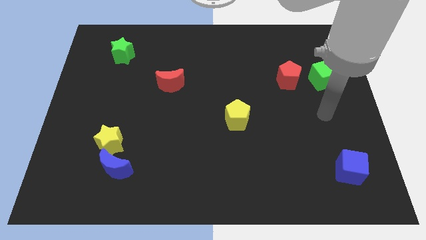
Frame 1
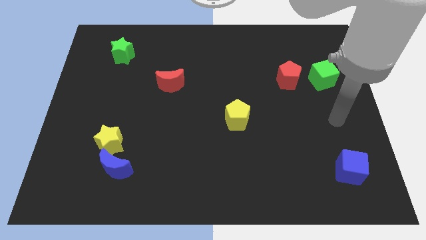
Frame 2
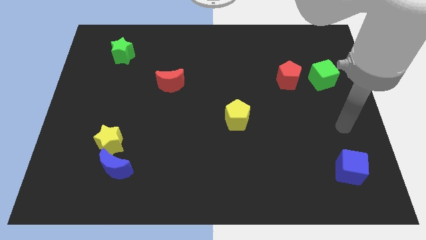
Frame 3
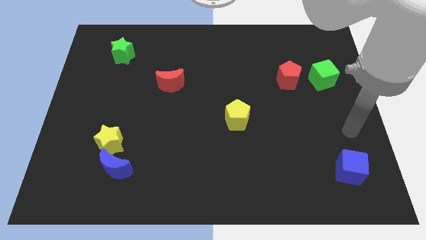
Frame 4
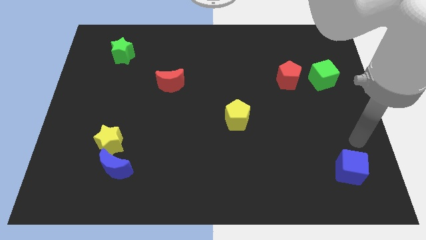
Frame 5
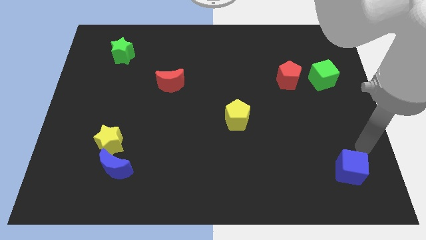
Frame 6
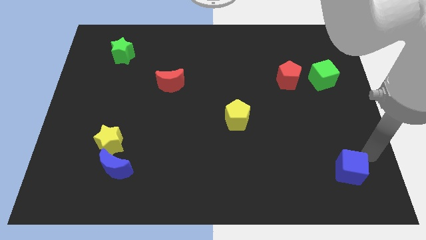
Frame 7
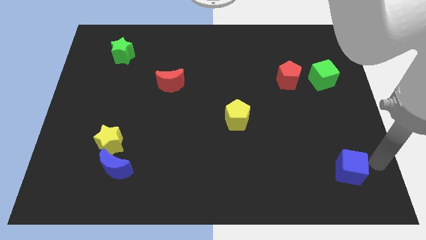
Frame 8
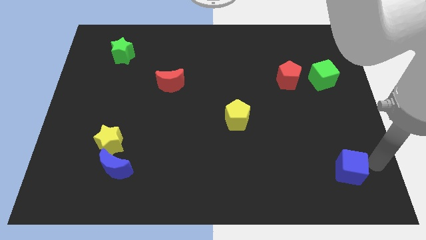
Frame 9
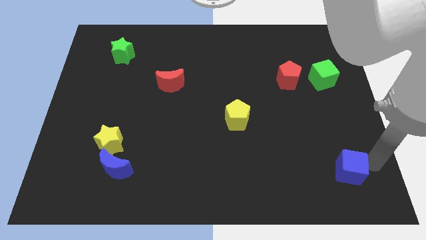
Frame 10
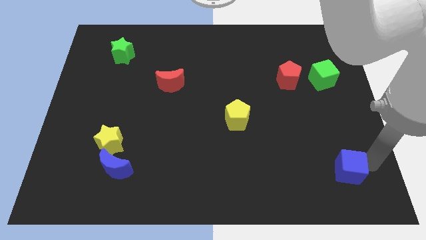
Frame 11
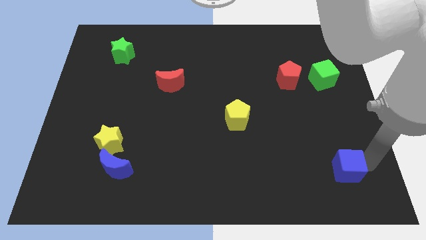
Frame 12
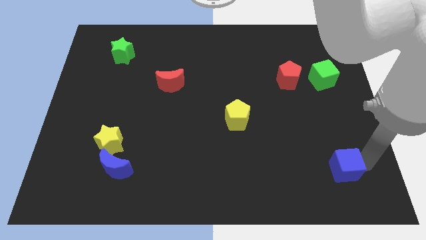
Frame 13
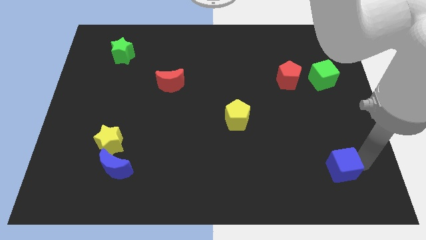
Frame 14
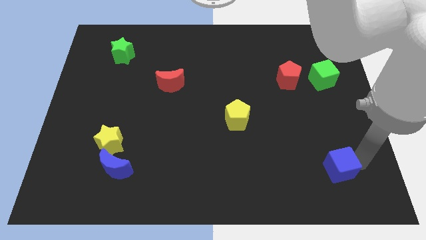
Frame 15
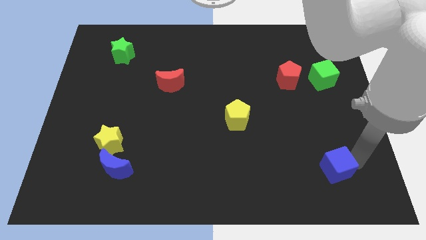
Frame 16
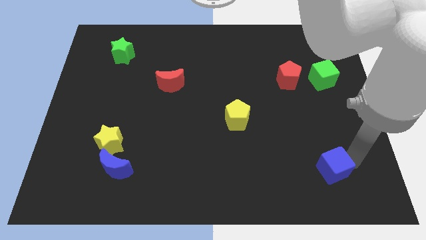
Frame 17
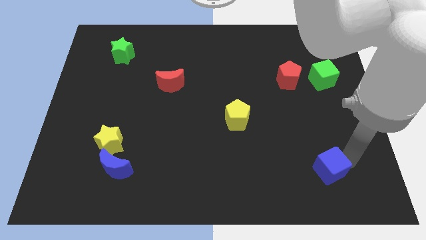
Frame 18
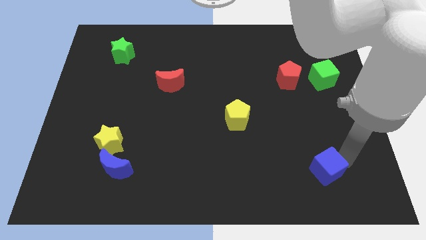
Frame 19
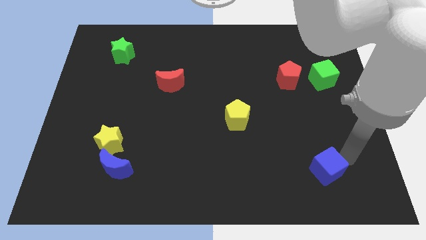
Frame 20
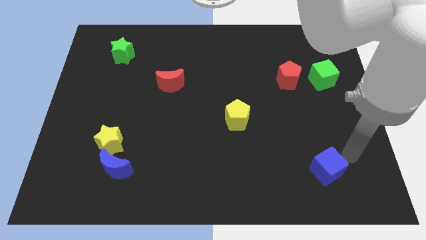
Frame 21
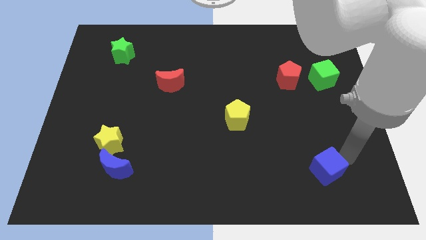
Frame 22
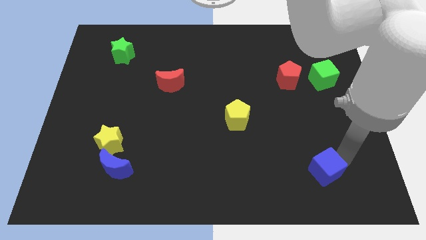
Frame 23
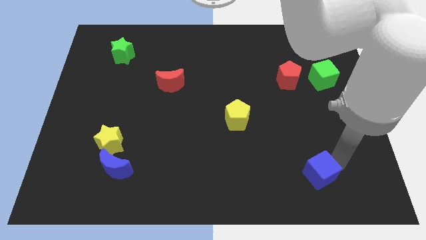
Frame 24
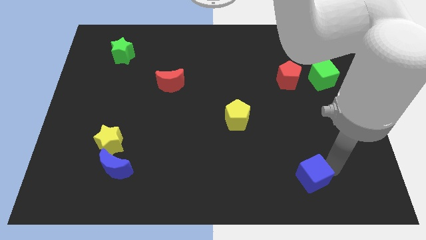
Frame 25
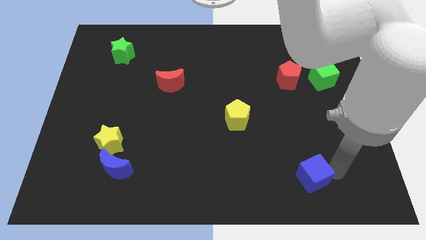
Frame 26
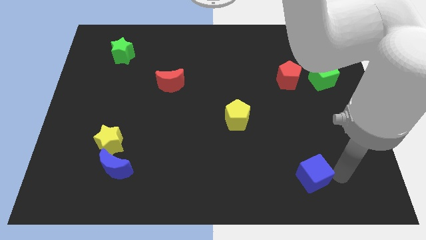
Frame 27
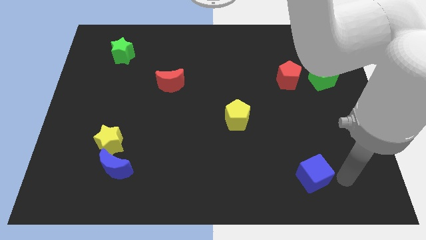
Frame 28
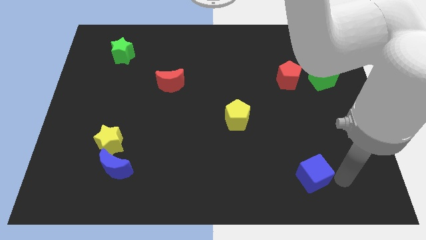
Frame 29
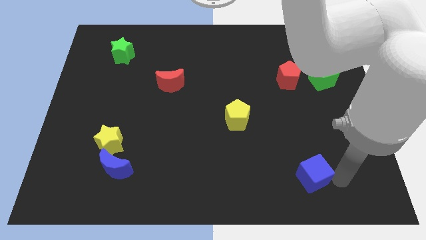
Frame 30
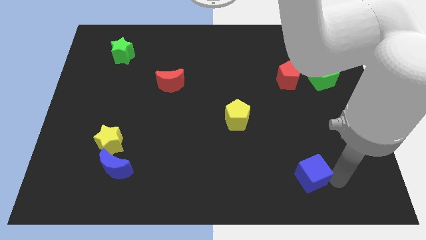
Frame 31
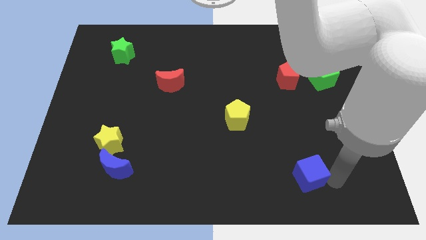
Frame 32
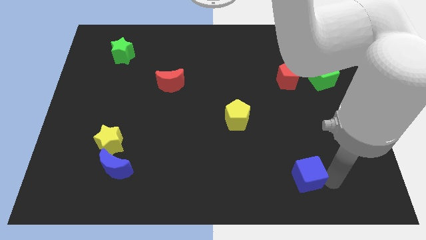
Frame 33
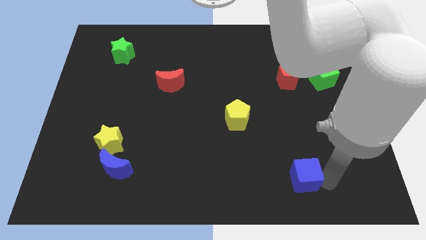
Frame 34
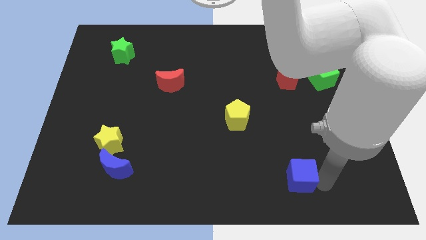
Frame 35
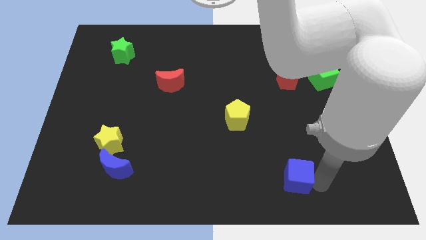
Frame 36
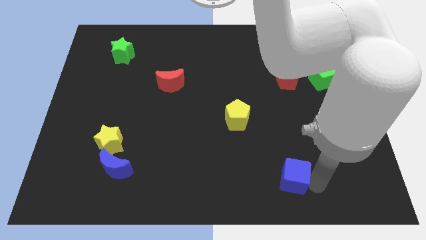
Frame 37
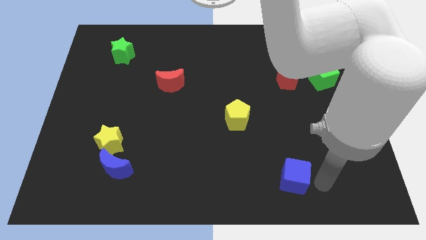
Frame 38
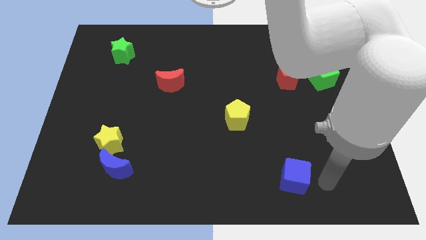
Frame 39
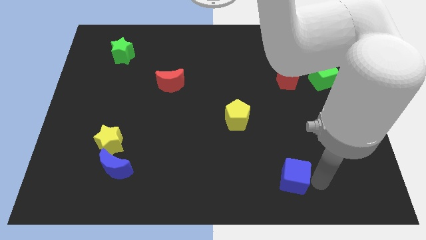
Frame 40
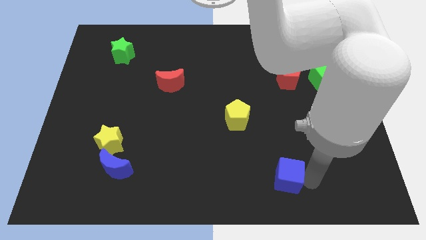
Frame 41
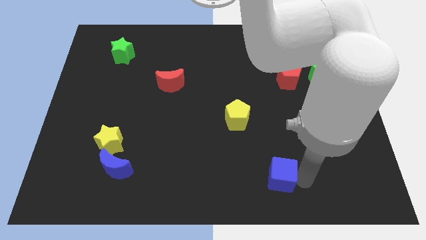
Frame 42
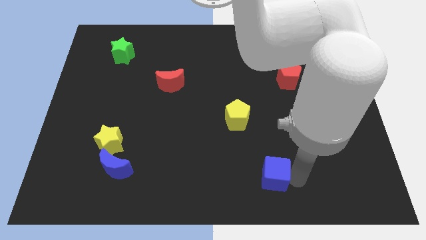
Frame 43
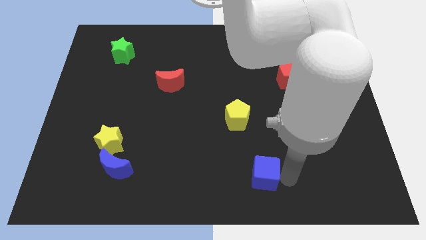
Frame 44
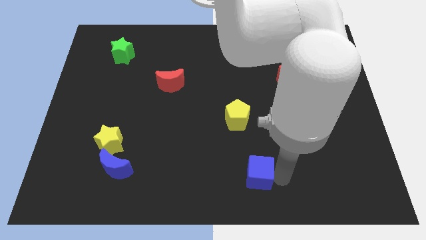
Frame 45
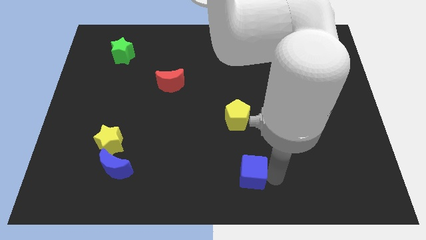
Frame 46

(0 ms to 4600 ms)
move the blue cube left

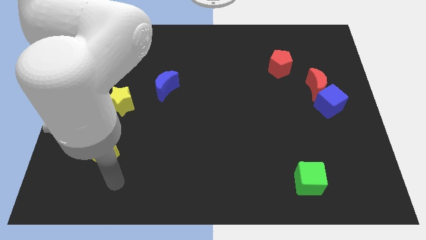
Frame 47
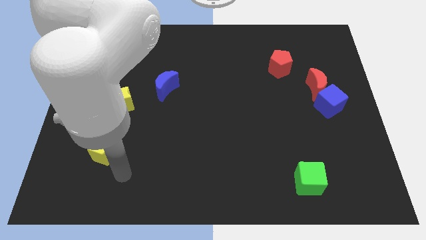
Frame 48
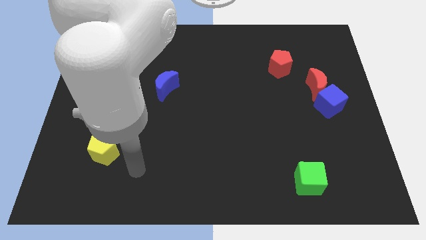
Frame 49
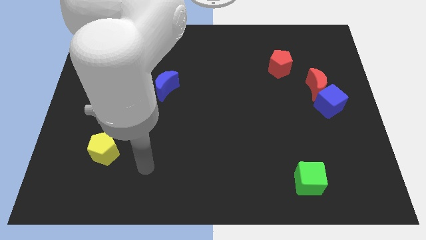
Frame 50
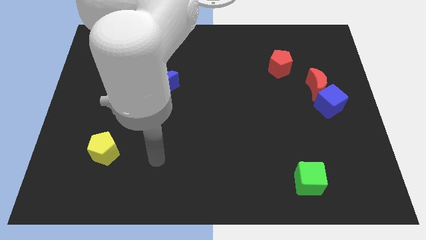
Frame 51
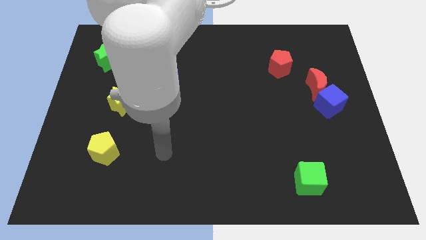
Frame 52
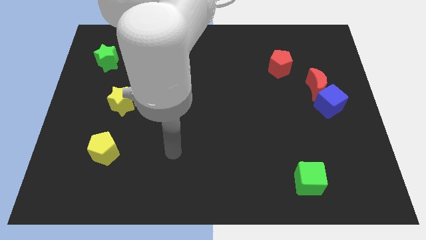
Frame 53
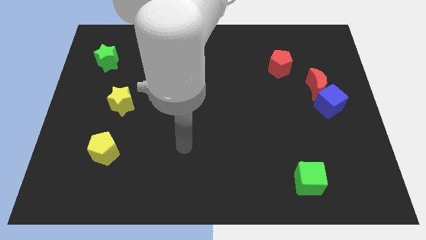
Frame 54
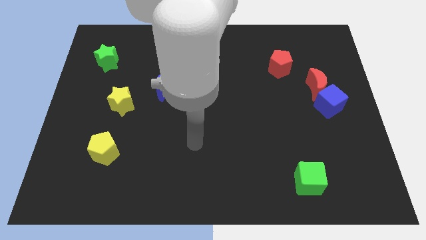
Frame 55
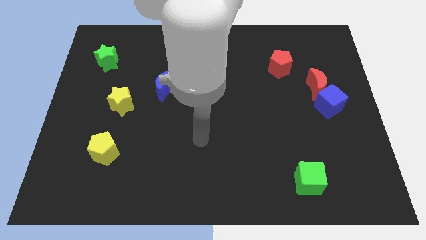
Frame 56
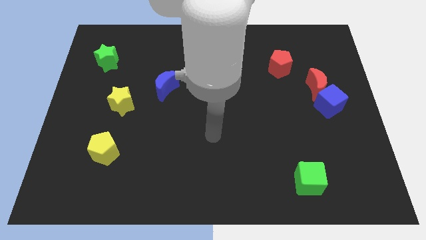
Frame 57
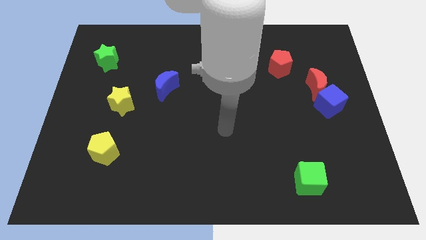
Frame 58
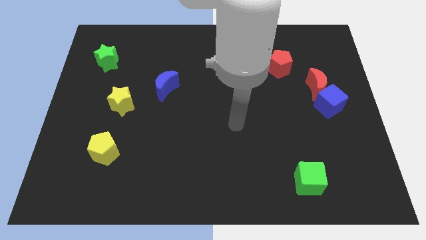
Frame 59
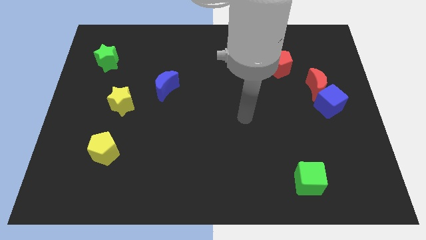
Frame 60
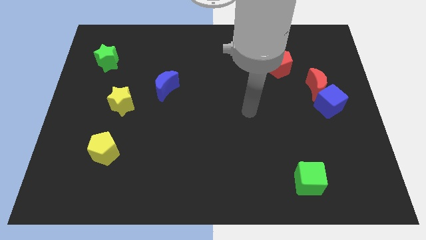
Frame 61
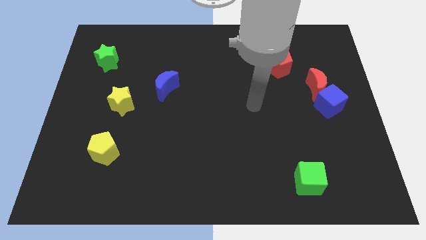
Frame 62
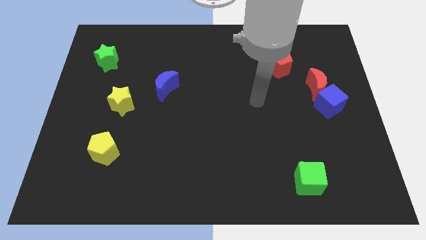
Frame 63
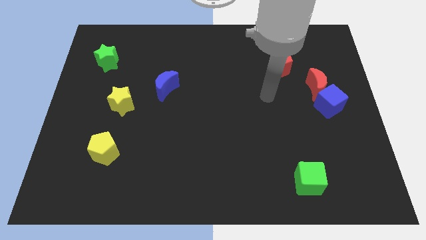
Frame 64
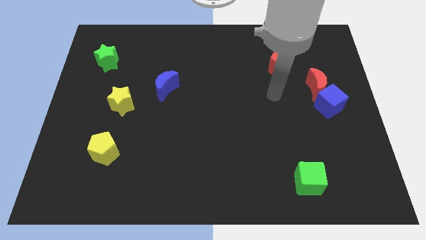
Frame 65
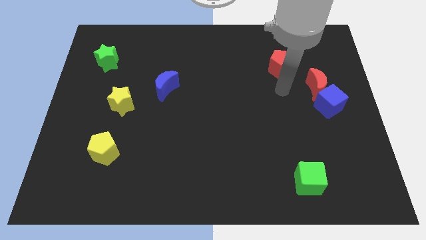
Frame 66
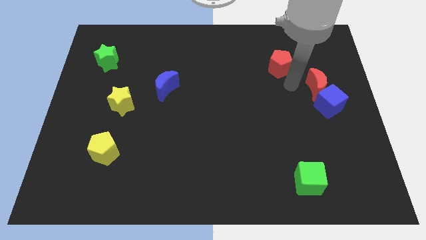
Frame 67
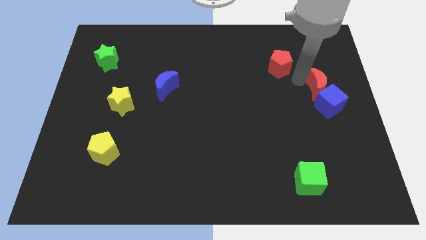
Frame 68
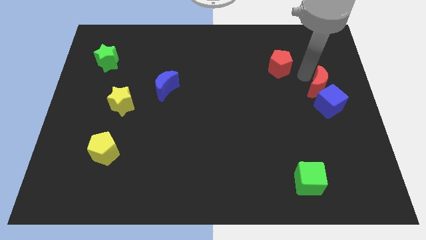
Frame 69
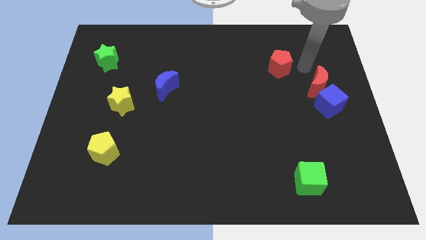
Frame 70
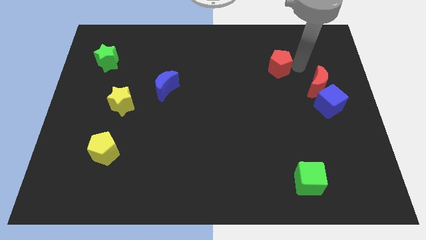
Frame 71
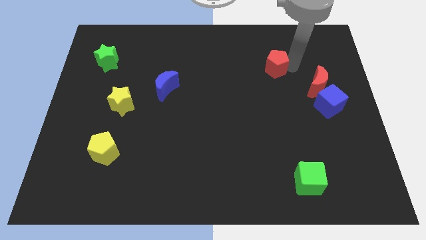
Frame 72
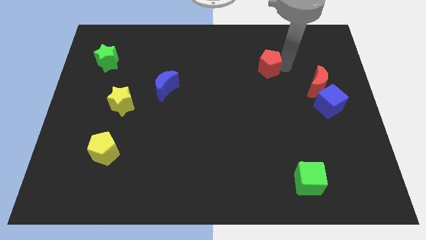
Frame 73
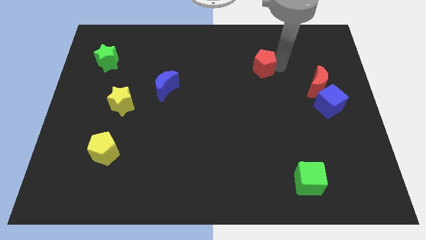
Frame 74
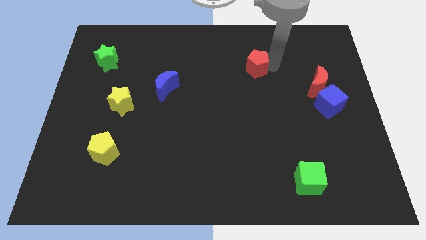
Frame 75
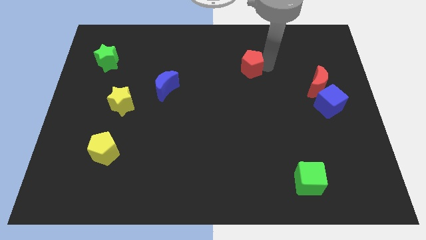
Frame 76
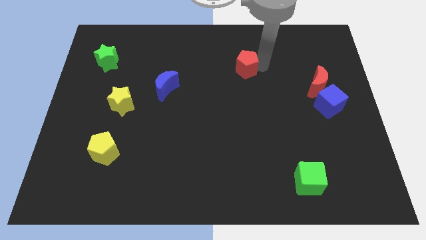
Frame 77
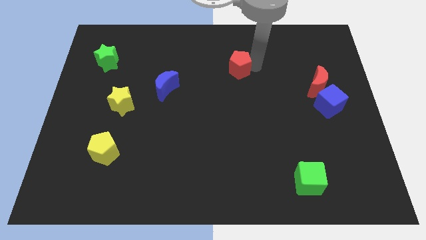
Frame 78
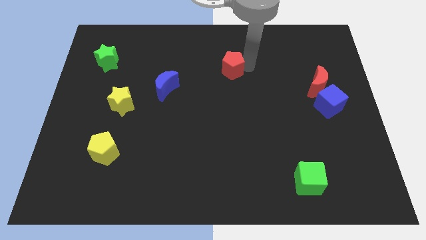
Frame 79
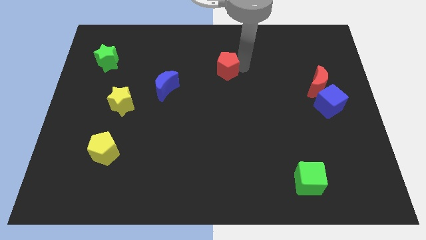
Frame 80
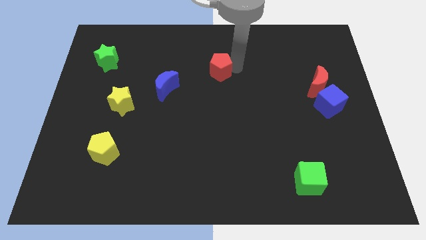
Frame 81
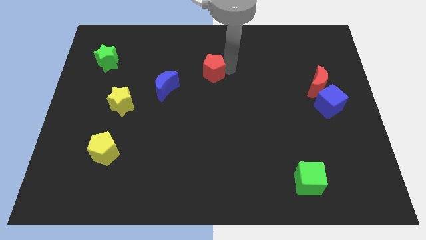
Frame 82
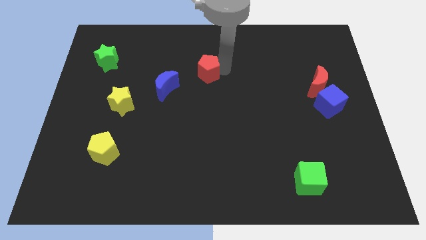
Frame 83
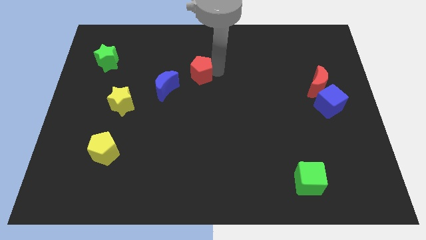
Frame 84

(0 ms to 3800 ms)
slide the red pentagon to the left
